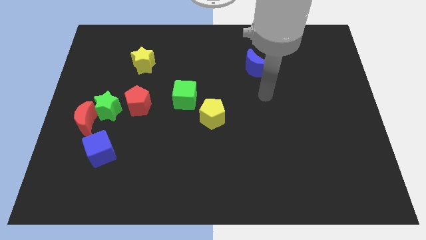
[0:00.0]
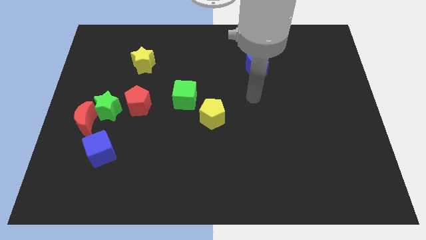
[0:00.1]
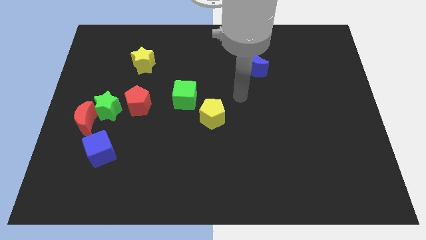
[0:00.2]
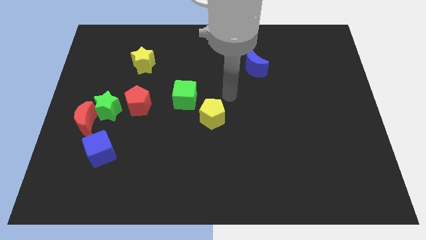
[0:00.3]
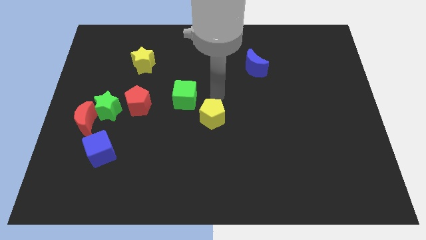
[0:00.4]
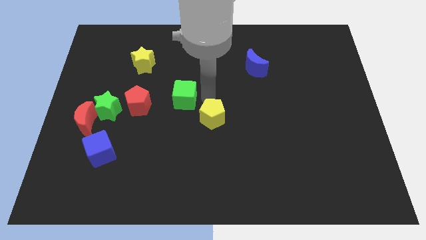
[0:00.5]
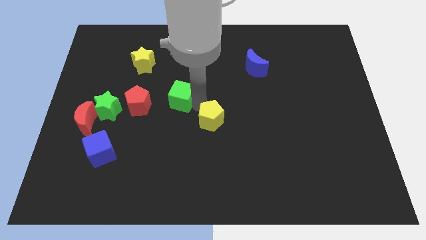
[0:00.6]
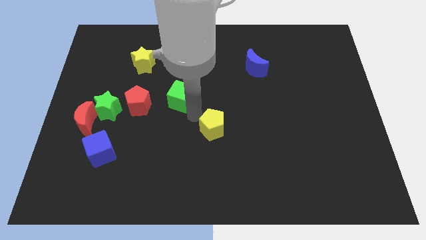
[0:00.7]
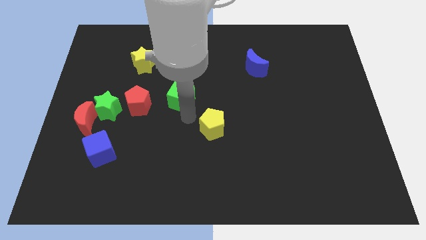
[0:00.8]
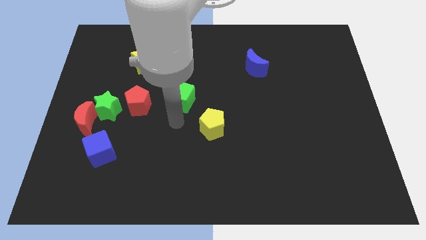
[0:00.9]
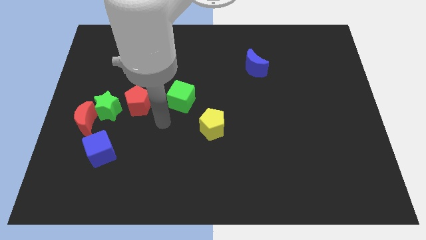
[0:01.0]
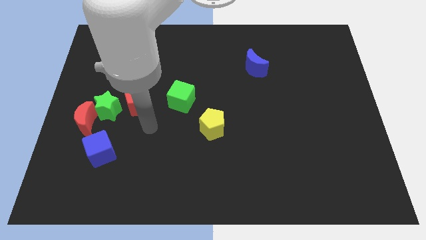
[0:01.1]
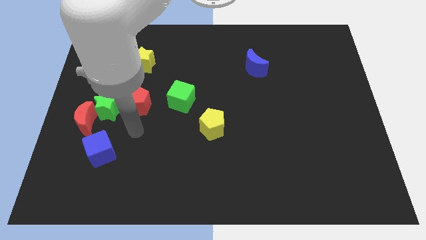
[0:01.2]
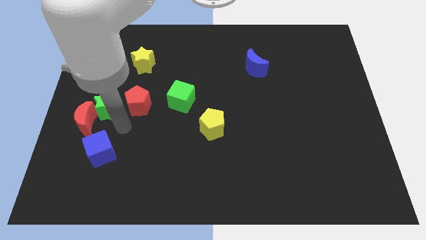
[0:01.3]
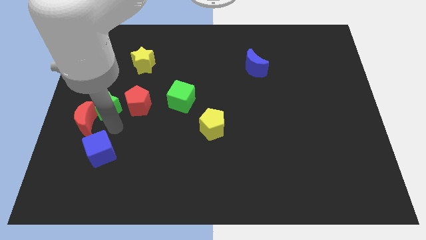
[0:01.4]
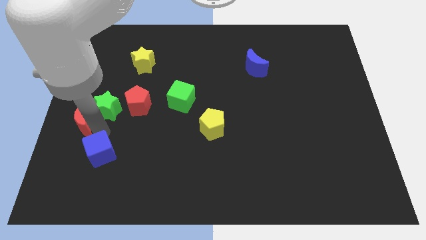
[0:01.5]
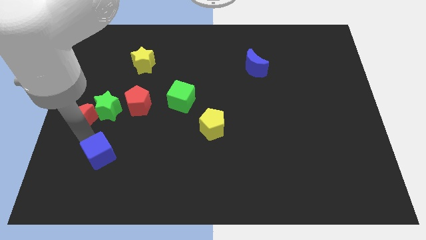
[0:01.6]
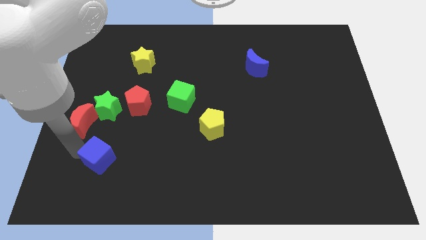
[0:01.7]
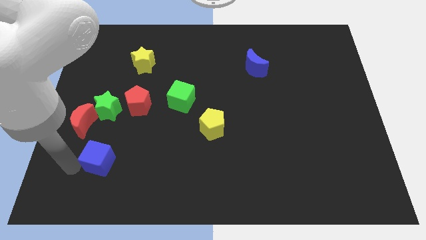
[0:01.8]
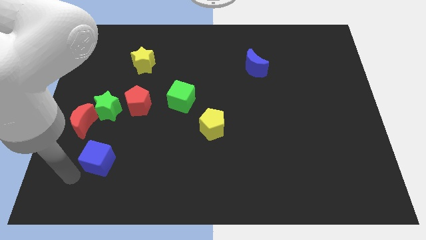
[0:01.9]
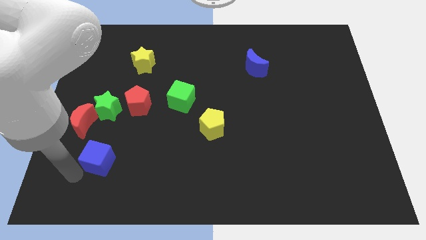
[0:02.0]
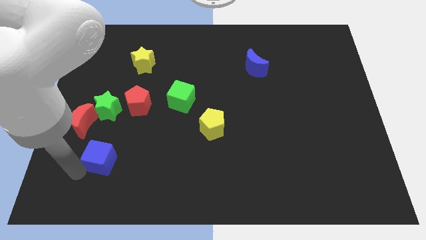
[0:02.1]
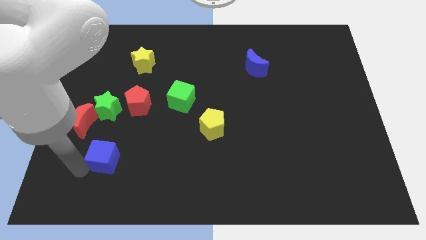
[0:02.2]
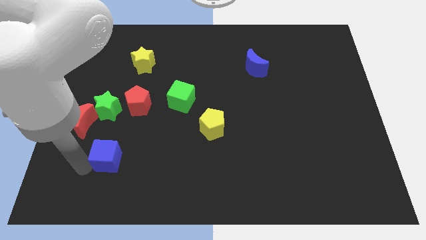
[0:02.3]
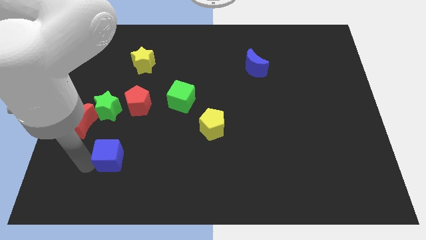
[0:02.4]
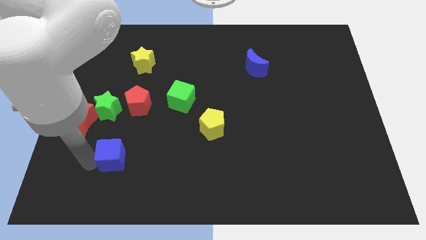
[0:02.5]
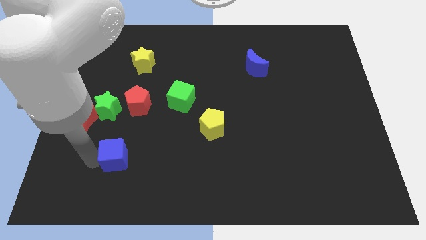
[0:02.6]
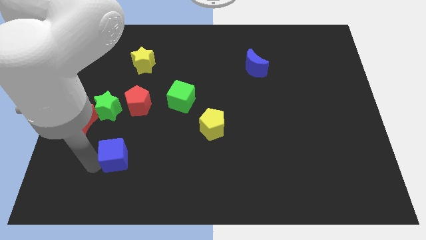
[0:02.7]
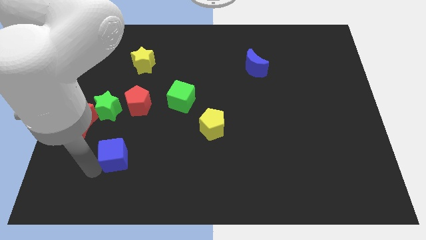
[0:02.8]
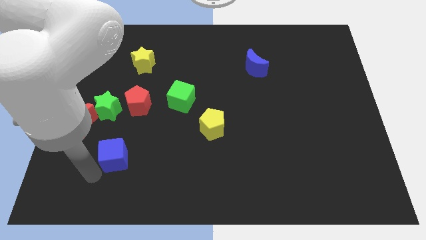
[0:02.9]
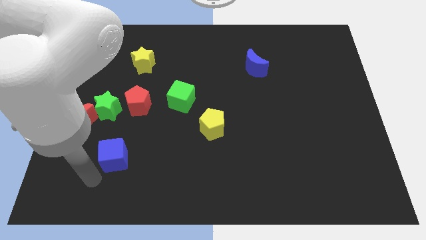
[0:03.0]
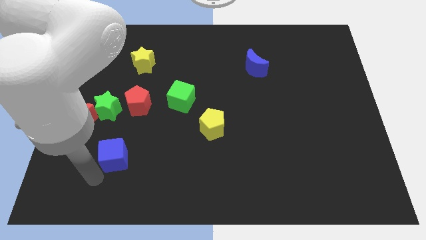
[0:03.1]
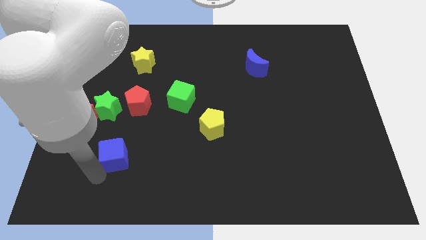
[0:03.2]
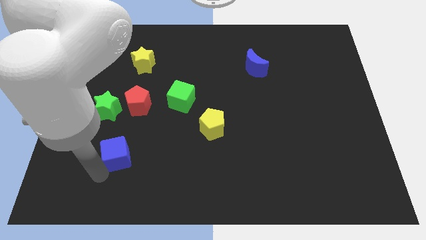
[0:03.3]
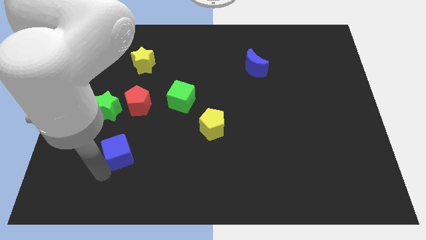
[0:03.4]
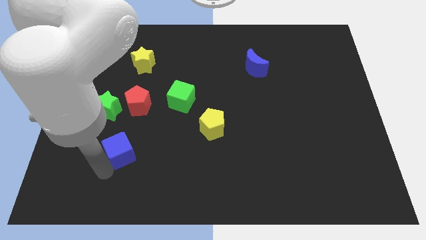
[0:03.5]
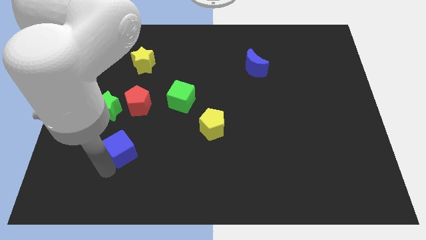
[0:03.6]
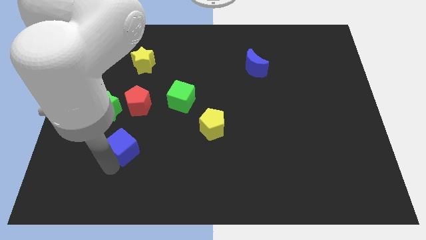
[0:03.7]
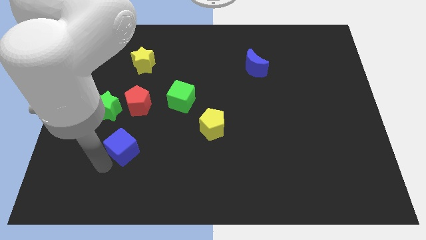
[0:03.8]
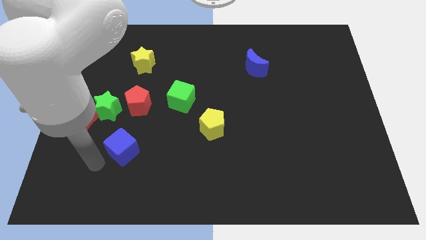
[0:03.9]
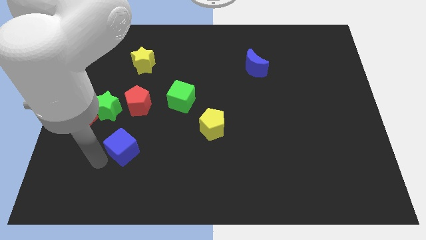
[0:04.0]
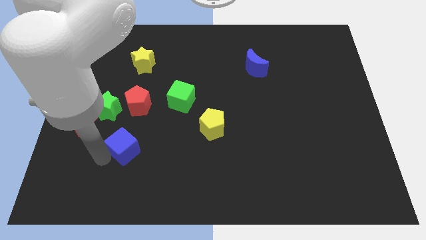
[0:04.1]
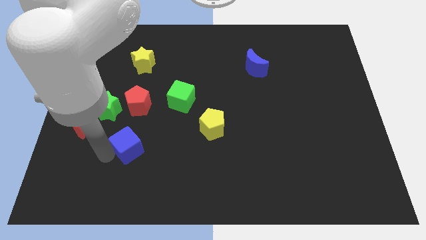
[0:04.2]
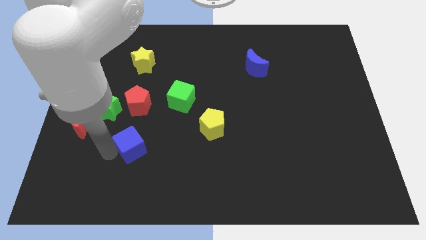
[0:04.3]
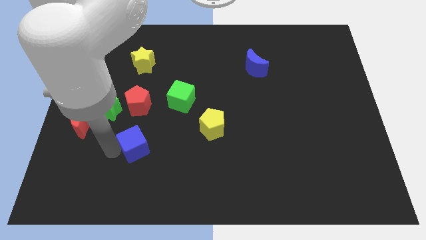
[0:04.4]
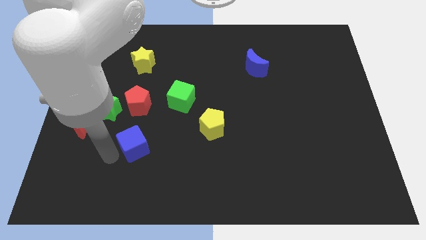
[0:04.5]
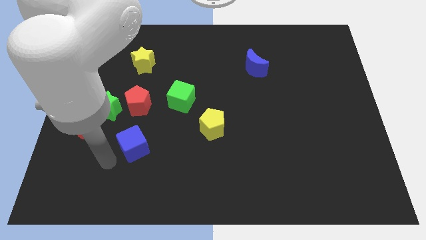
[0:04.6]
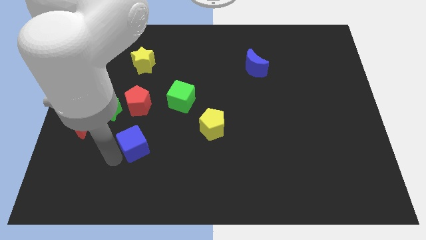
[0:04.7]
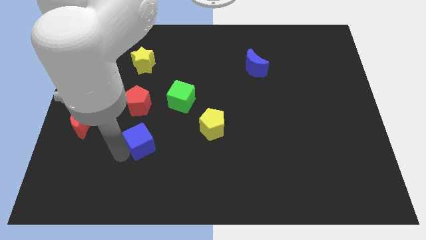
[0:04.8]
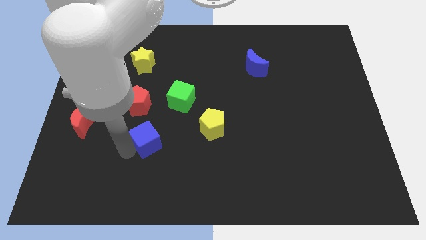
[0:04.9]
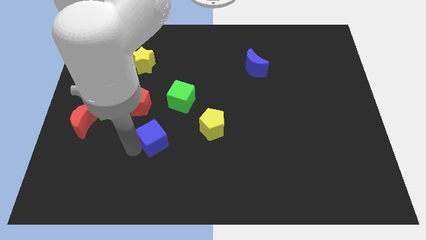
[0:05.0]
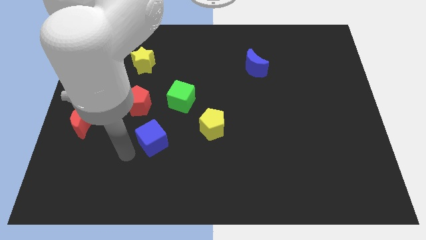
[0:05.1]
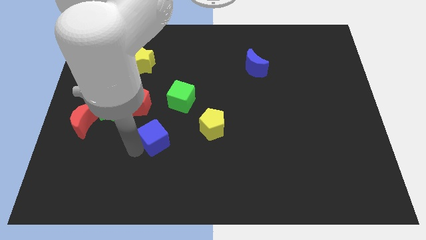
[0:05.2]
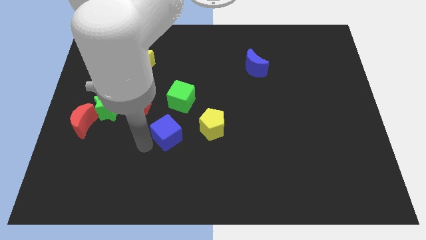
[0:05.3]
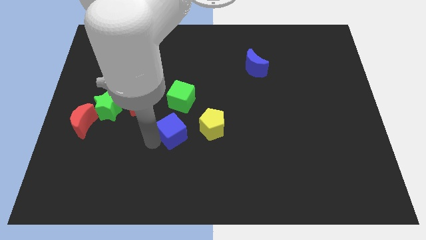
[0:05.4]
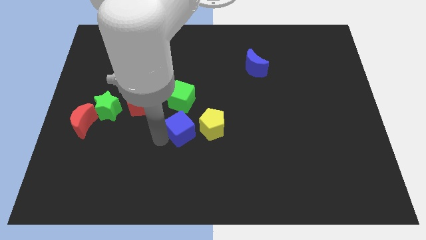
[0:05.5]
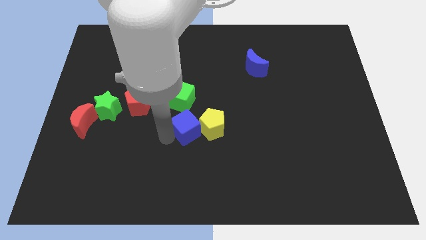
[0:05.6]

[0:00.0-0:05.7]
move the blue cube close to the yellow pentagon

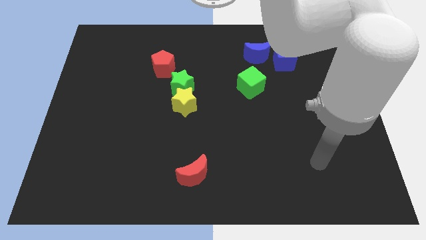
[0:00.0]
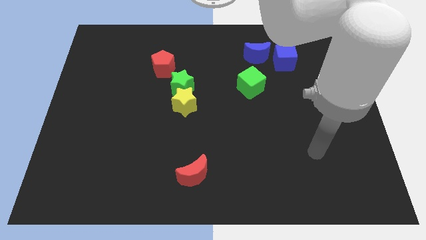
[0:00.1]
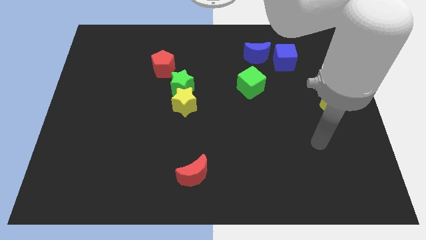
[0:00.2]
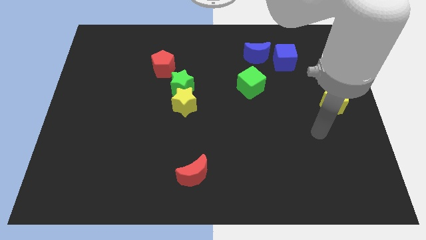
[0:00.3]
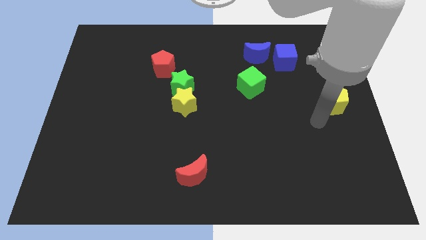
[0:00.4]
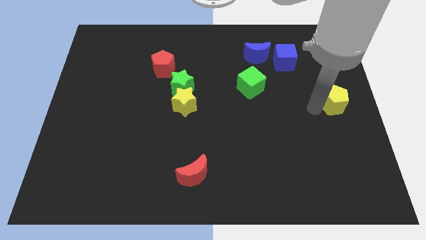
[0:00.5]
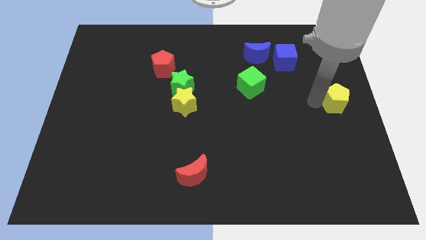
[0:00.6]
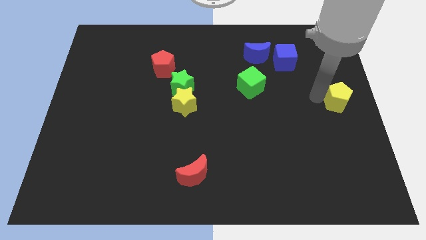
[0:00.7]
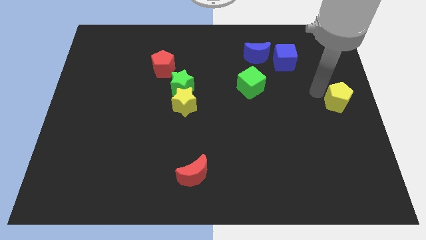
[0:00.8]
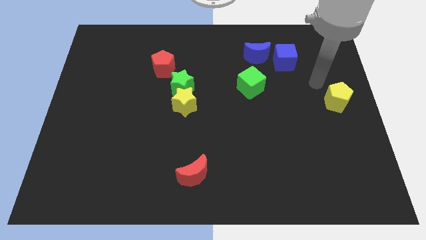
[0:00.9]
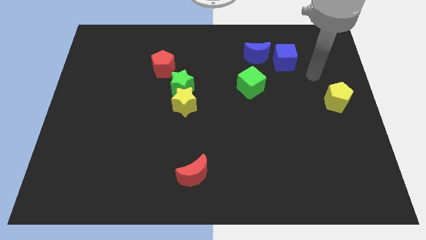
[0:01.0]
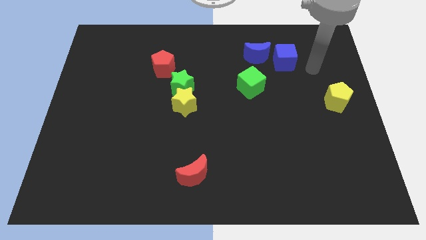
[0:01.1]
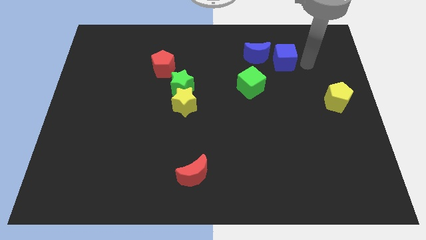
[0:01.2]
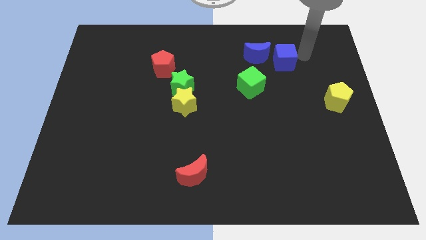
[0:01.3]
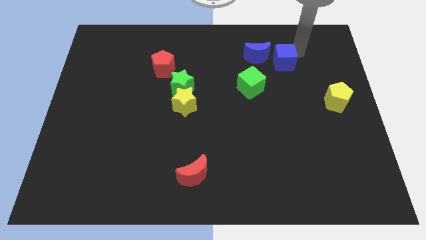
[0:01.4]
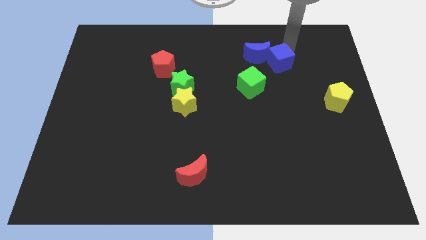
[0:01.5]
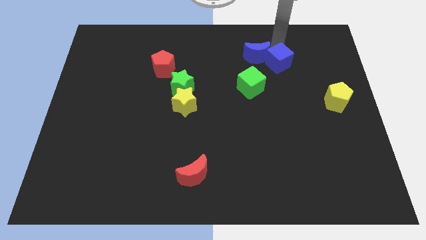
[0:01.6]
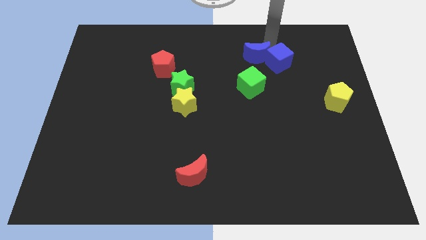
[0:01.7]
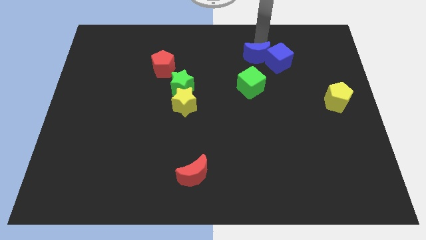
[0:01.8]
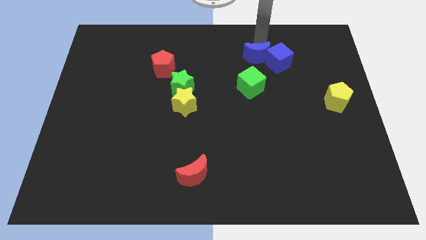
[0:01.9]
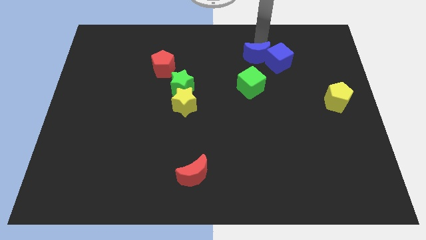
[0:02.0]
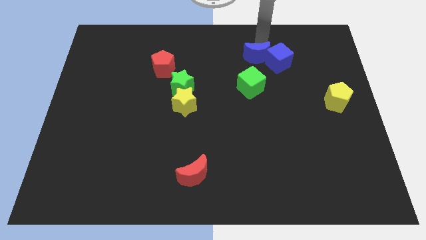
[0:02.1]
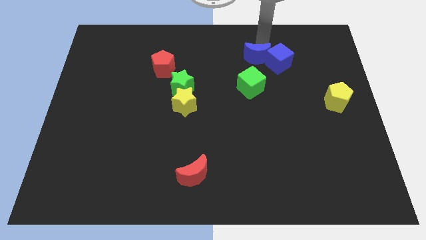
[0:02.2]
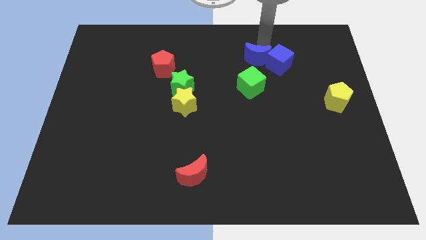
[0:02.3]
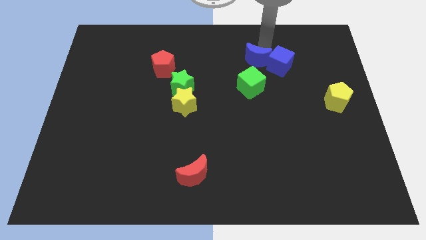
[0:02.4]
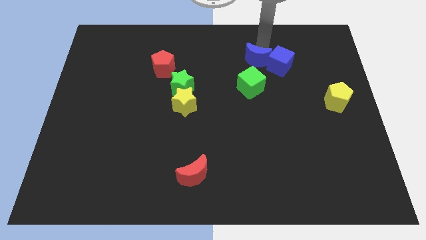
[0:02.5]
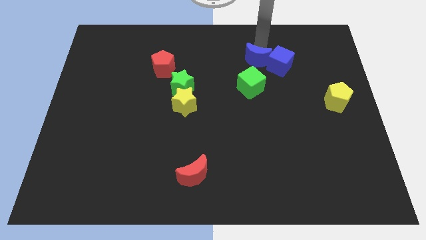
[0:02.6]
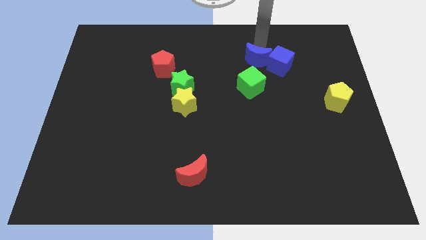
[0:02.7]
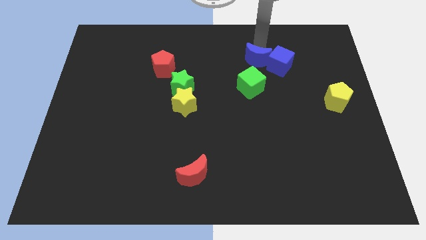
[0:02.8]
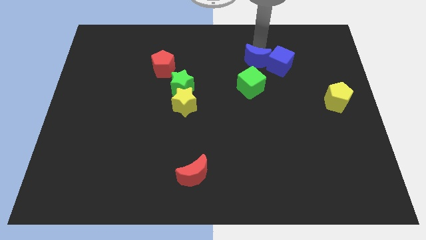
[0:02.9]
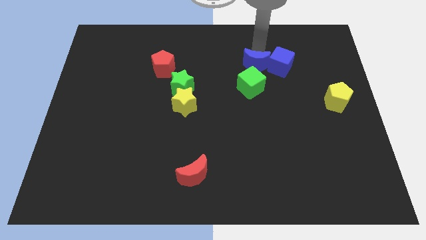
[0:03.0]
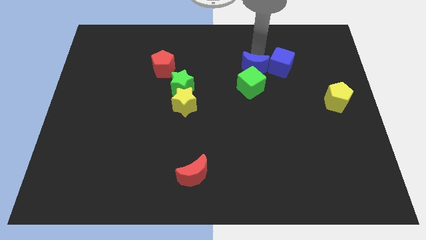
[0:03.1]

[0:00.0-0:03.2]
put the blue moon next to the green cube
